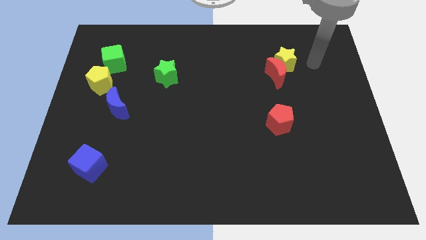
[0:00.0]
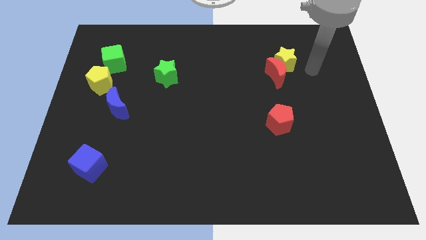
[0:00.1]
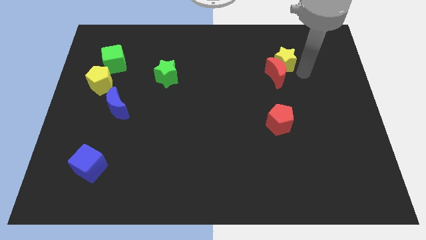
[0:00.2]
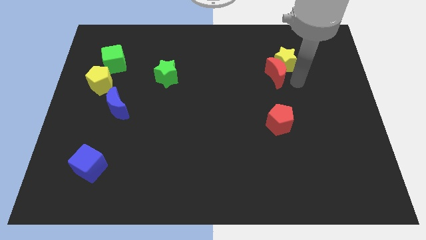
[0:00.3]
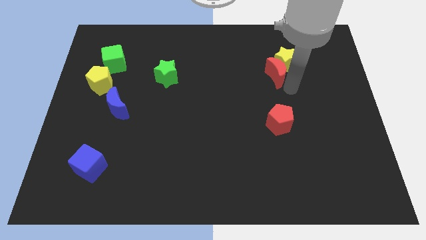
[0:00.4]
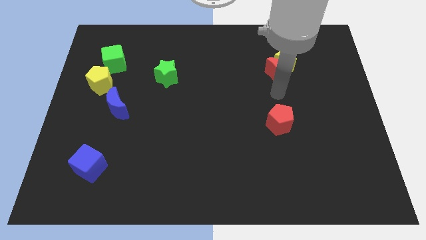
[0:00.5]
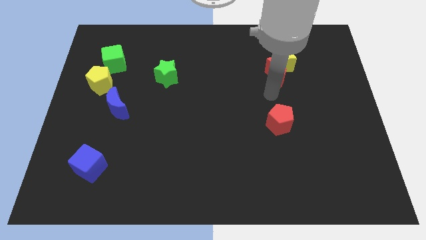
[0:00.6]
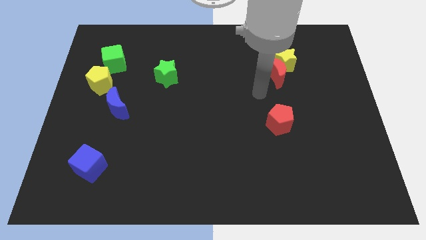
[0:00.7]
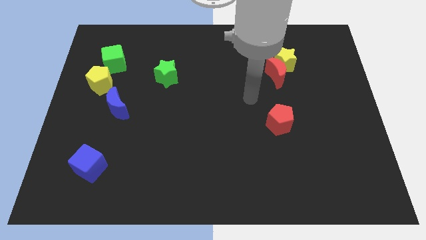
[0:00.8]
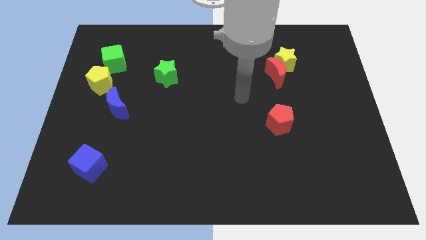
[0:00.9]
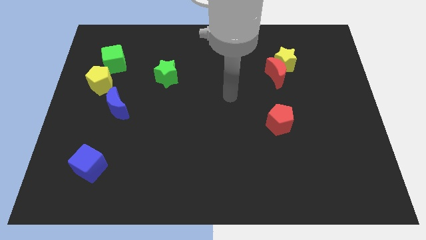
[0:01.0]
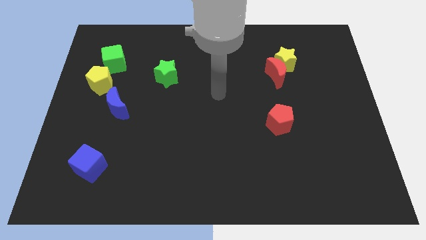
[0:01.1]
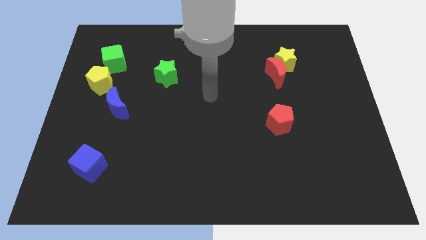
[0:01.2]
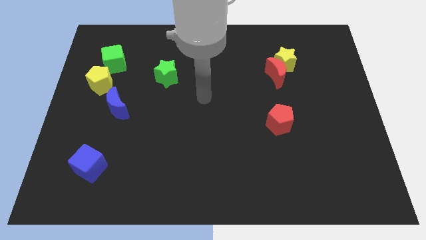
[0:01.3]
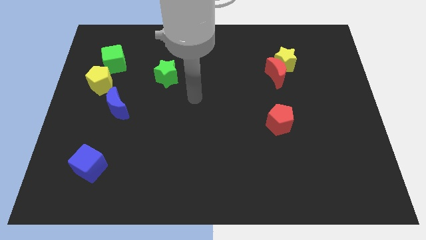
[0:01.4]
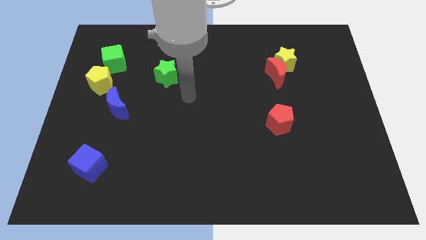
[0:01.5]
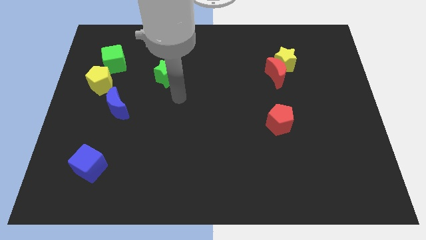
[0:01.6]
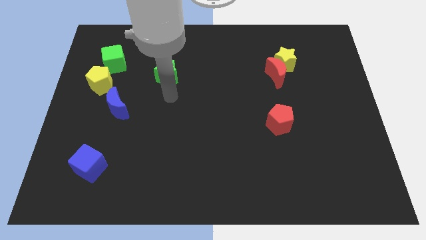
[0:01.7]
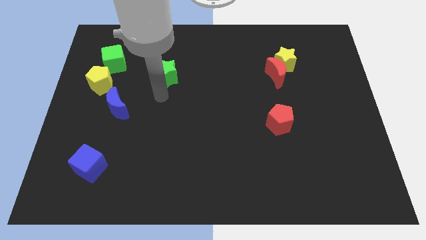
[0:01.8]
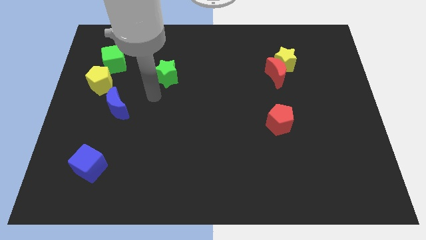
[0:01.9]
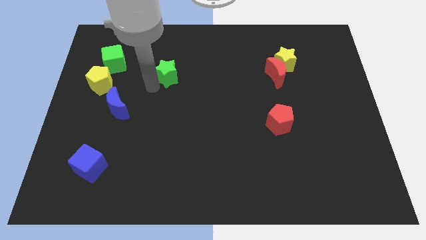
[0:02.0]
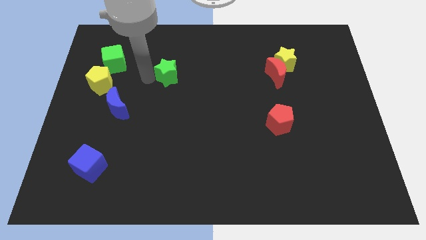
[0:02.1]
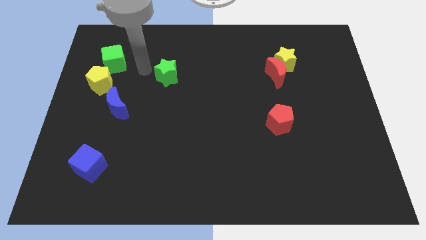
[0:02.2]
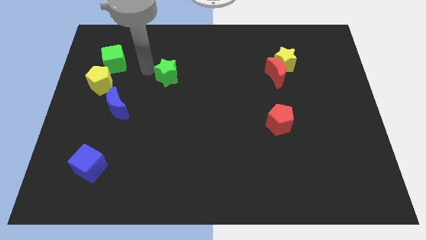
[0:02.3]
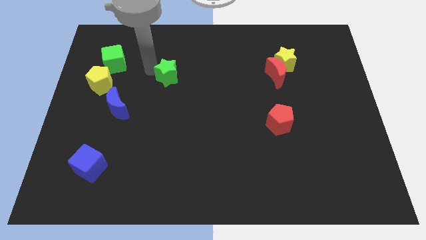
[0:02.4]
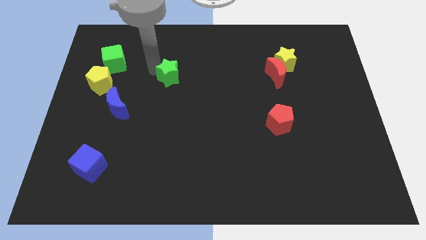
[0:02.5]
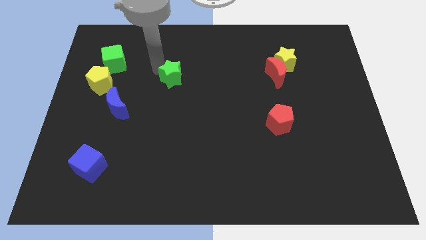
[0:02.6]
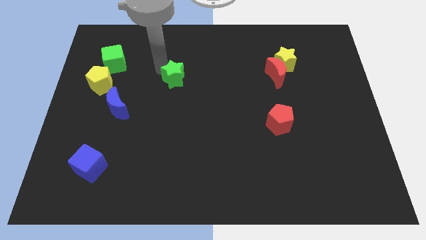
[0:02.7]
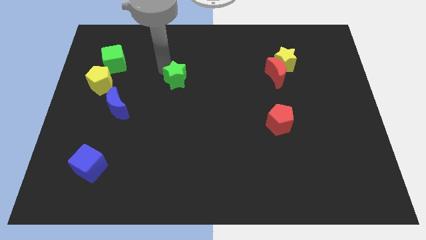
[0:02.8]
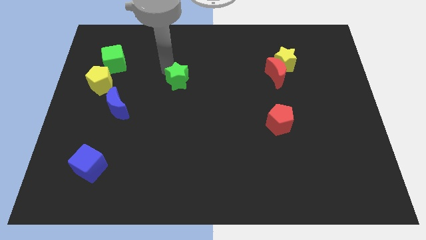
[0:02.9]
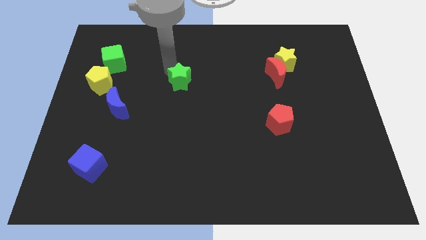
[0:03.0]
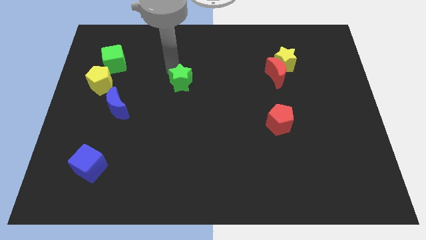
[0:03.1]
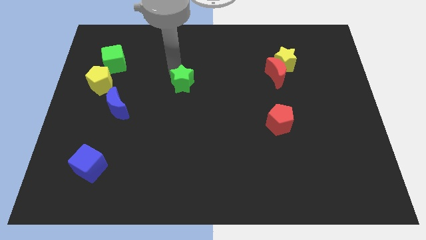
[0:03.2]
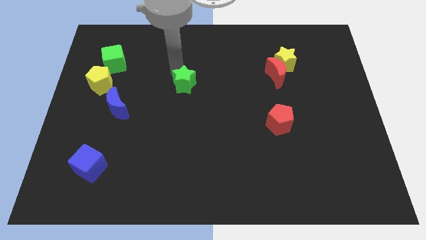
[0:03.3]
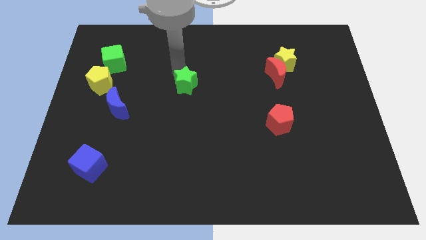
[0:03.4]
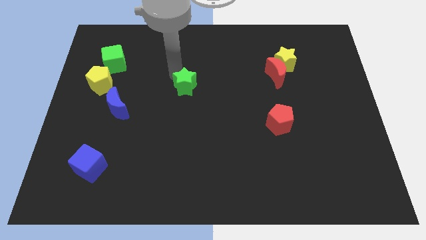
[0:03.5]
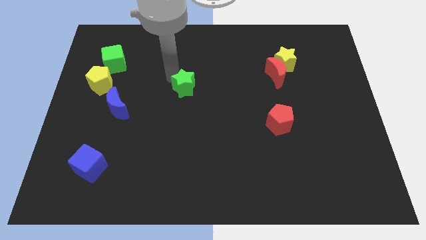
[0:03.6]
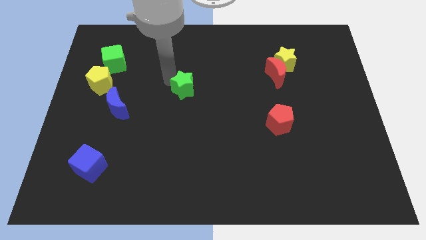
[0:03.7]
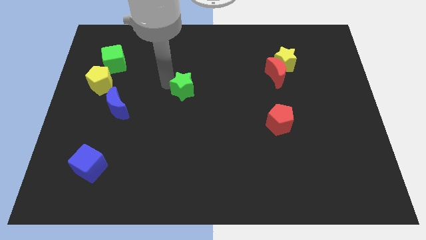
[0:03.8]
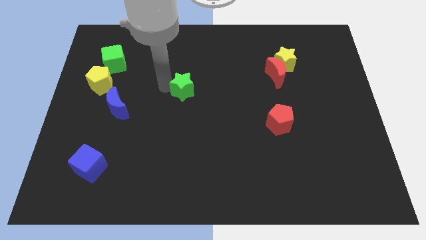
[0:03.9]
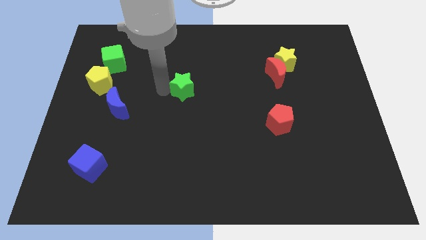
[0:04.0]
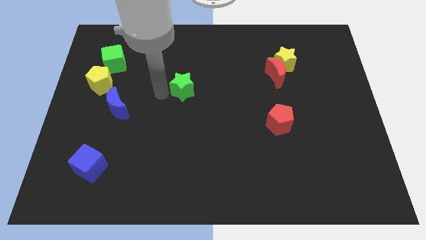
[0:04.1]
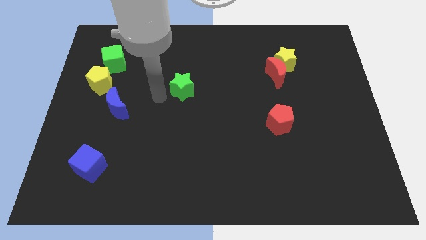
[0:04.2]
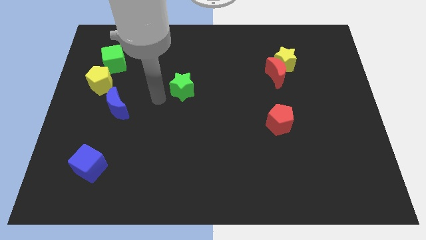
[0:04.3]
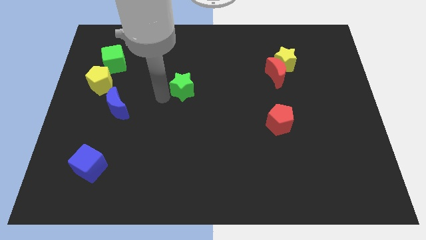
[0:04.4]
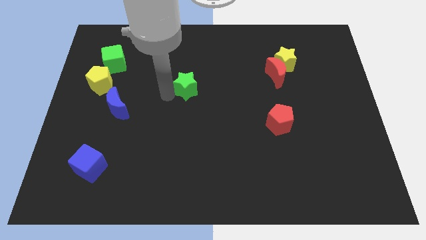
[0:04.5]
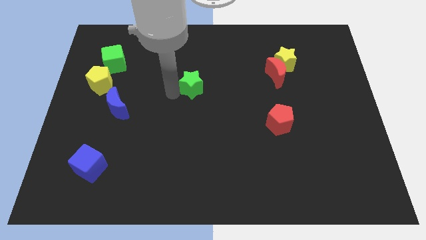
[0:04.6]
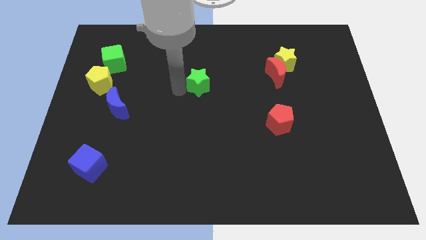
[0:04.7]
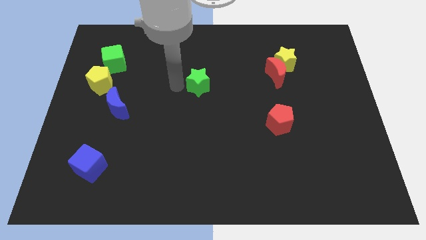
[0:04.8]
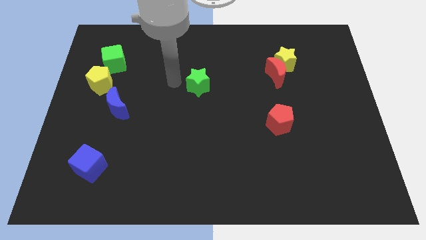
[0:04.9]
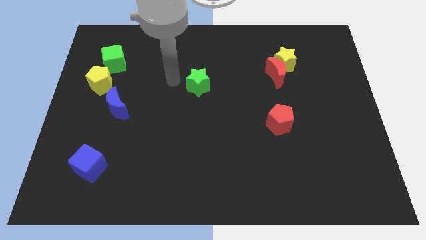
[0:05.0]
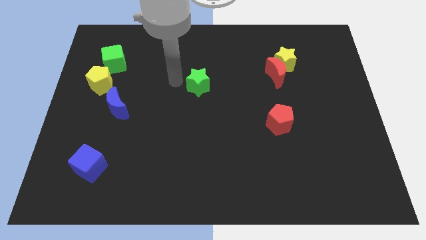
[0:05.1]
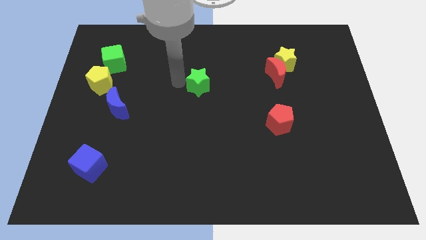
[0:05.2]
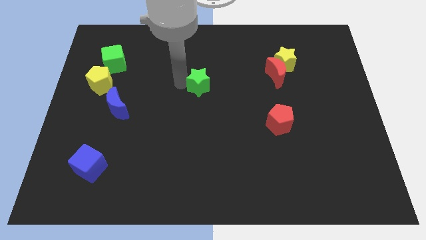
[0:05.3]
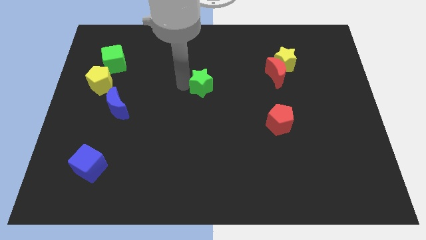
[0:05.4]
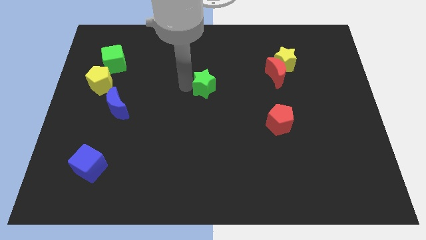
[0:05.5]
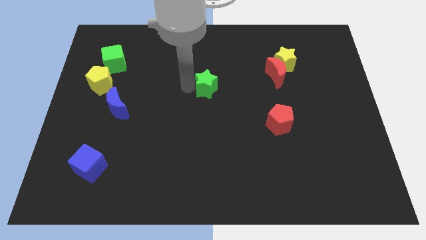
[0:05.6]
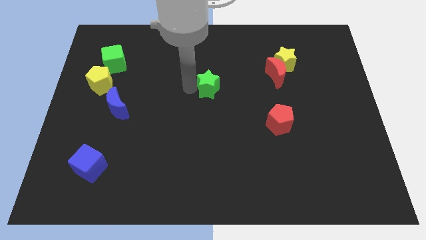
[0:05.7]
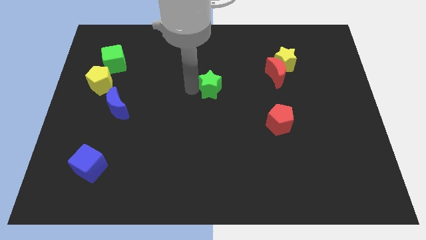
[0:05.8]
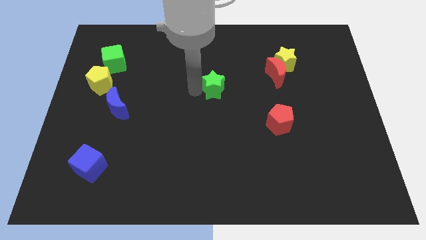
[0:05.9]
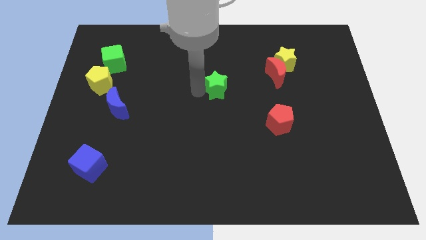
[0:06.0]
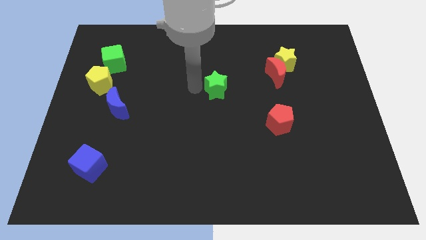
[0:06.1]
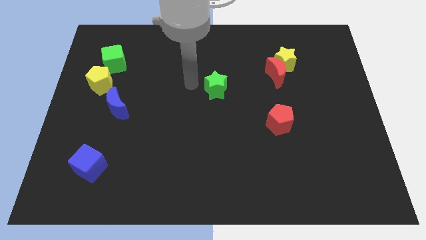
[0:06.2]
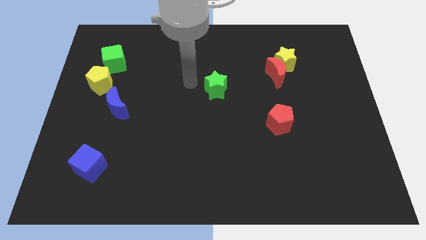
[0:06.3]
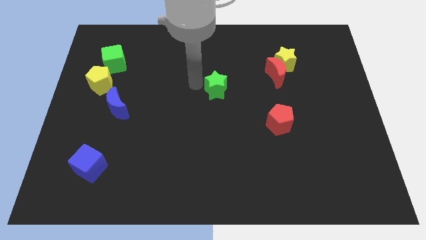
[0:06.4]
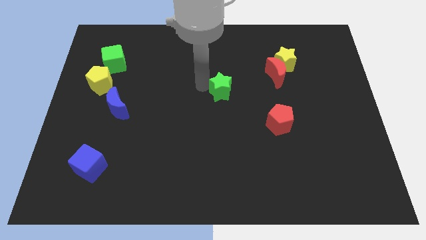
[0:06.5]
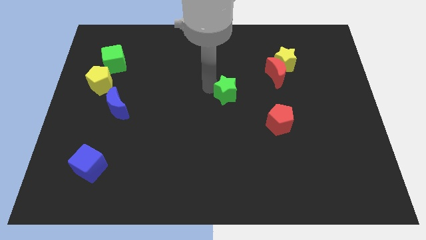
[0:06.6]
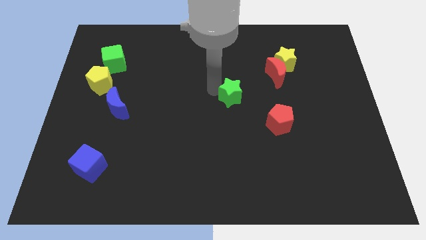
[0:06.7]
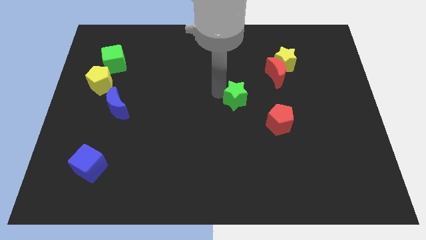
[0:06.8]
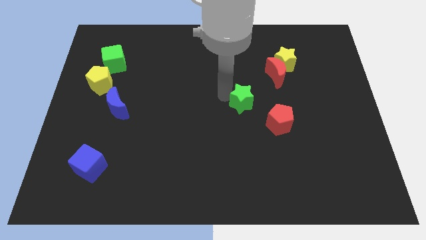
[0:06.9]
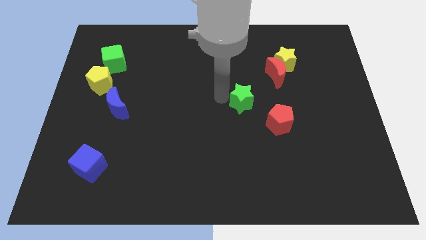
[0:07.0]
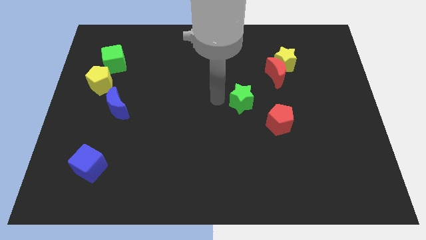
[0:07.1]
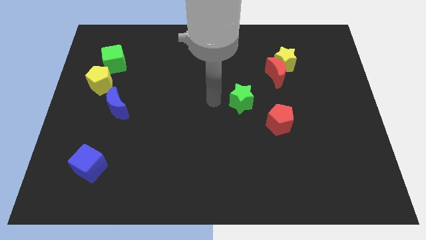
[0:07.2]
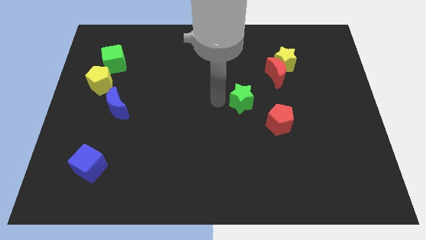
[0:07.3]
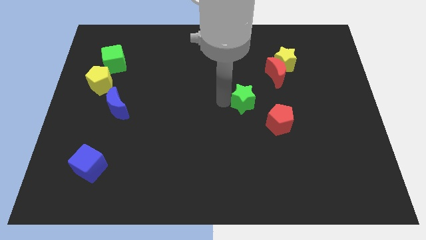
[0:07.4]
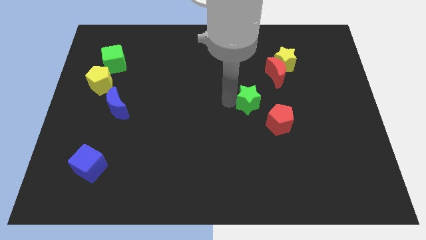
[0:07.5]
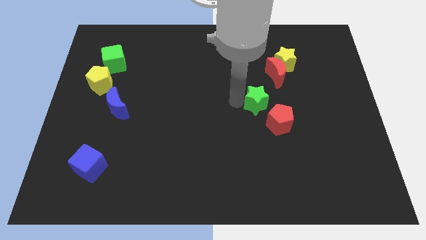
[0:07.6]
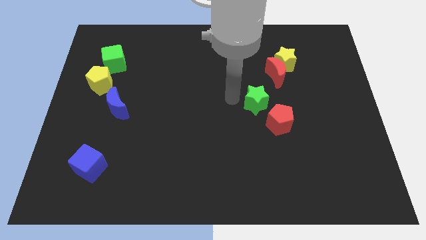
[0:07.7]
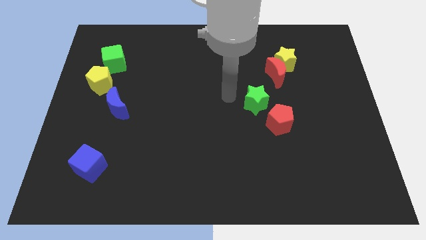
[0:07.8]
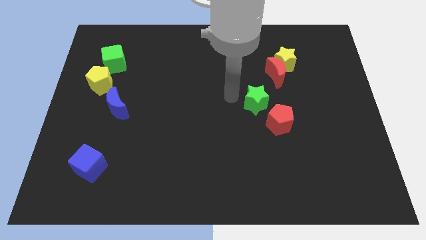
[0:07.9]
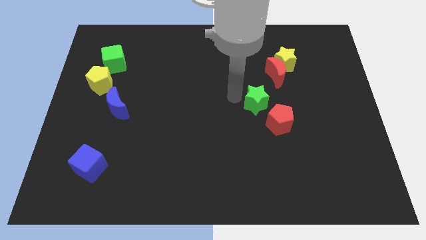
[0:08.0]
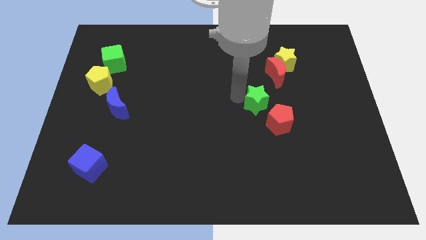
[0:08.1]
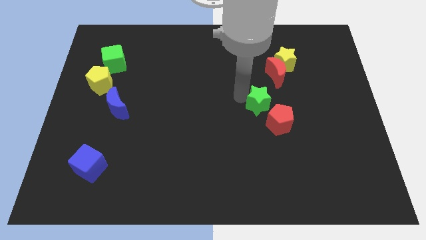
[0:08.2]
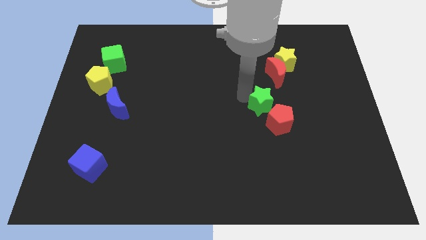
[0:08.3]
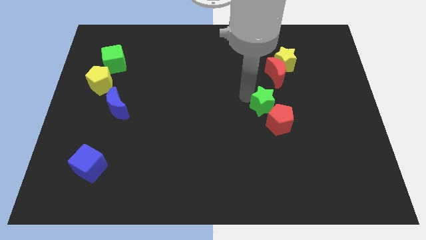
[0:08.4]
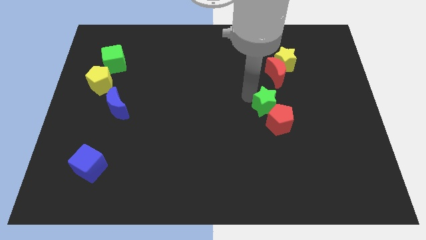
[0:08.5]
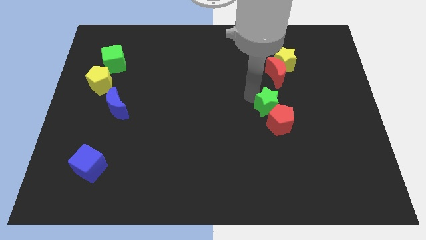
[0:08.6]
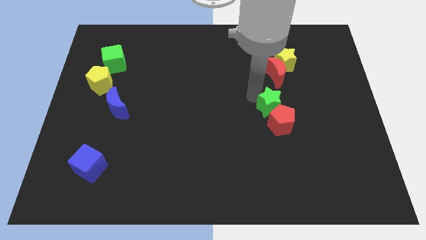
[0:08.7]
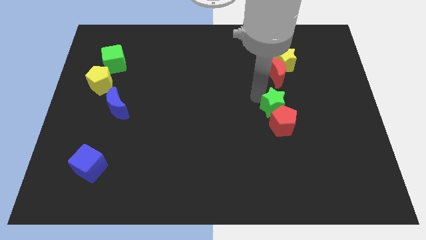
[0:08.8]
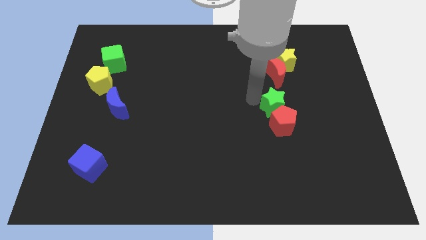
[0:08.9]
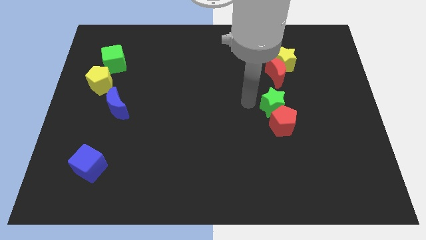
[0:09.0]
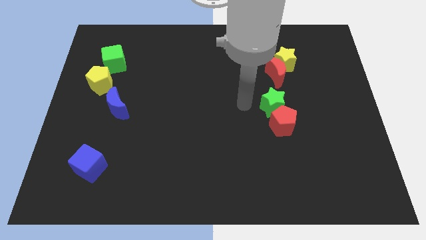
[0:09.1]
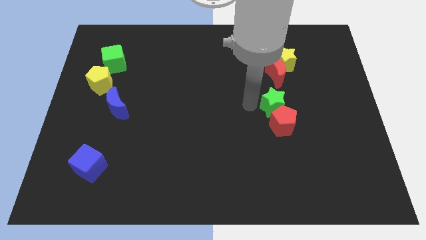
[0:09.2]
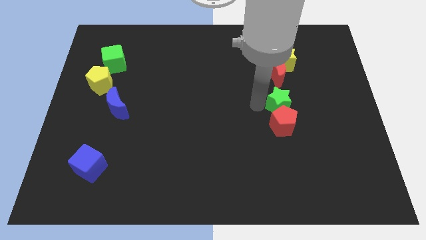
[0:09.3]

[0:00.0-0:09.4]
put the green star to the top right of the red pentagon
